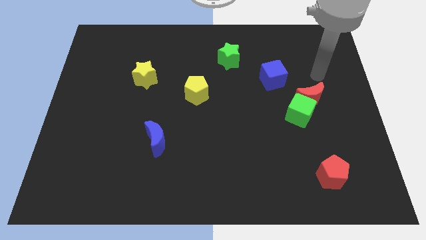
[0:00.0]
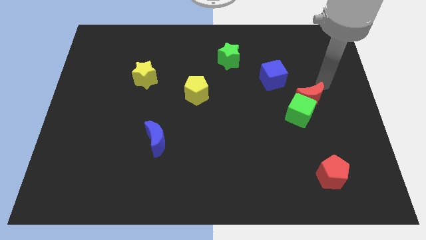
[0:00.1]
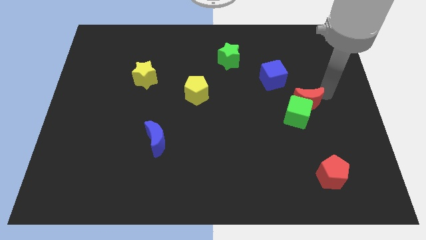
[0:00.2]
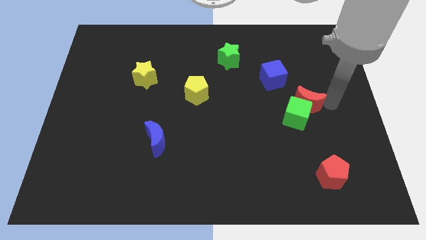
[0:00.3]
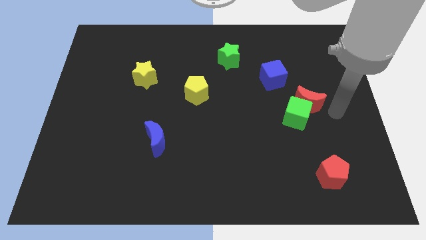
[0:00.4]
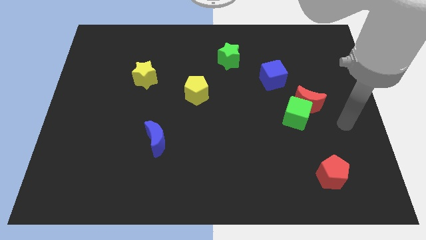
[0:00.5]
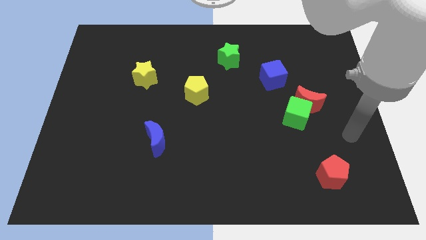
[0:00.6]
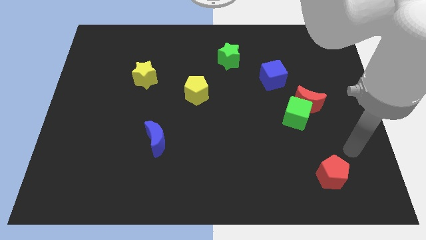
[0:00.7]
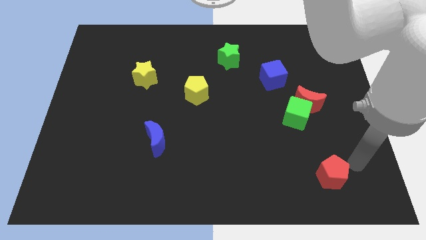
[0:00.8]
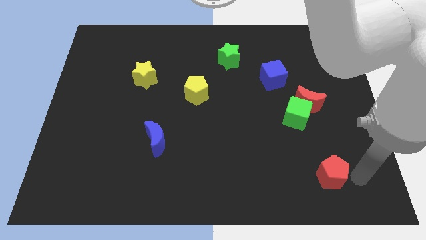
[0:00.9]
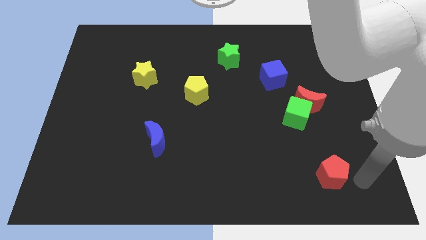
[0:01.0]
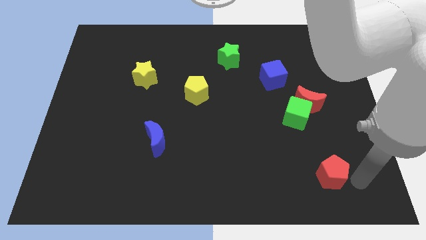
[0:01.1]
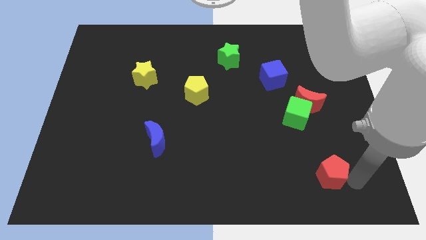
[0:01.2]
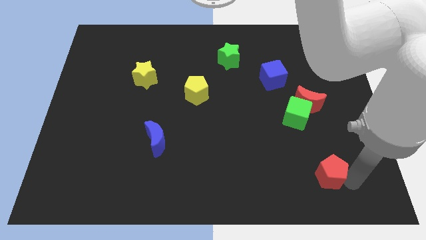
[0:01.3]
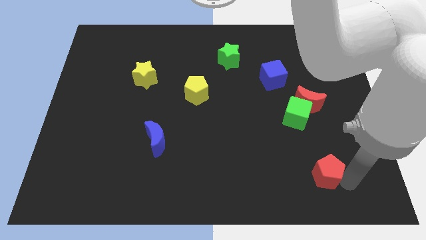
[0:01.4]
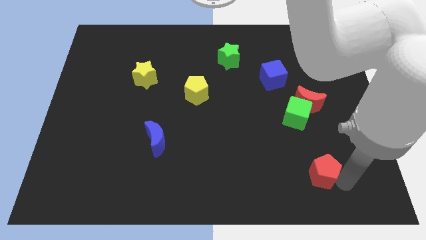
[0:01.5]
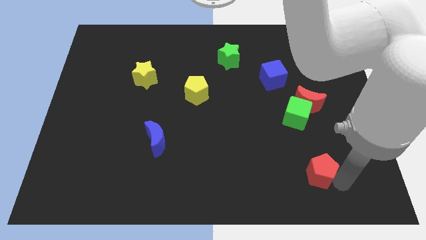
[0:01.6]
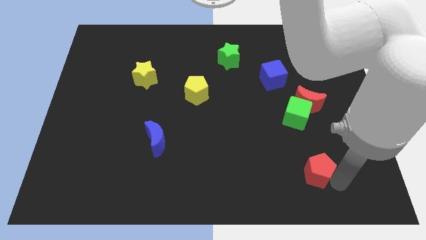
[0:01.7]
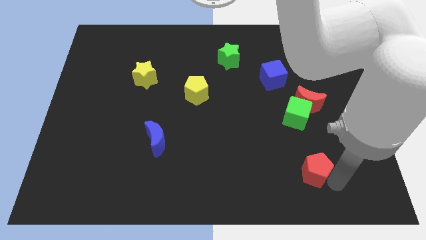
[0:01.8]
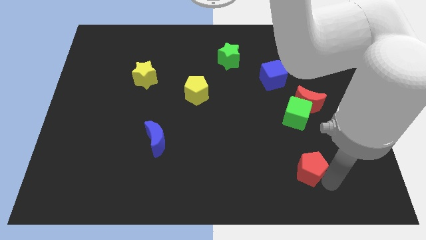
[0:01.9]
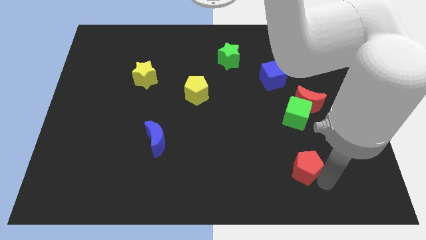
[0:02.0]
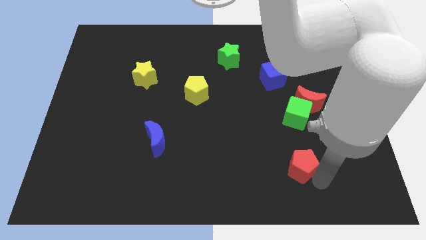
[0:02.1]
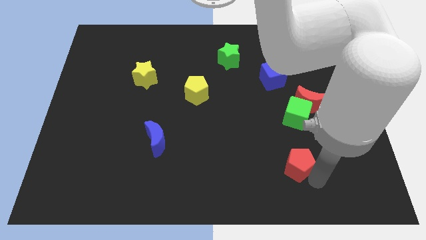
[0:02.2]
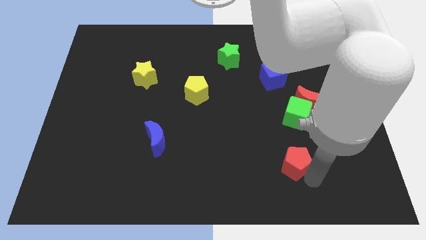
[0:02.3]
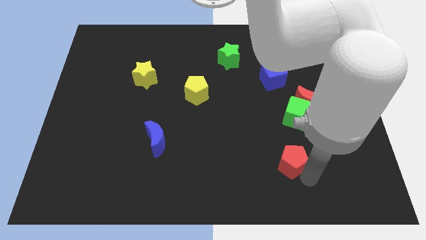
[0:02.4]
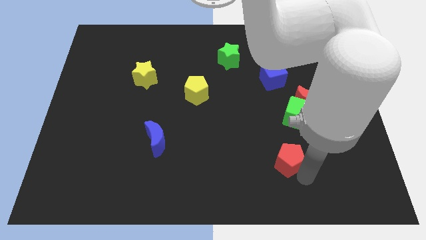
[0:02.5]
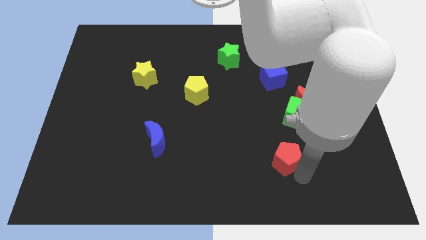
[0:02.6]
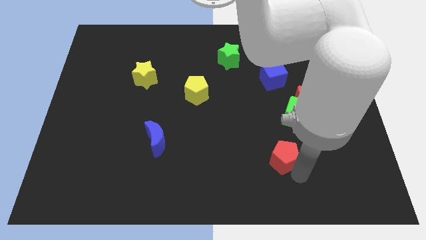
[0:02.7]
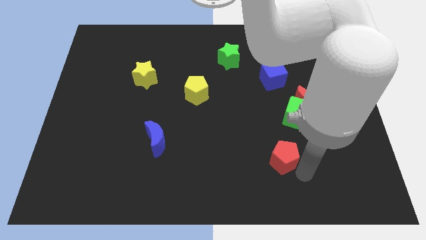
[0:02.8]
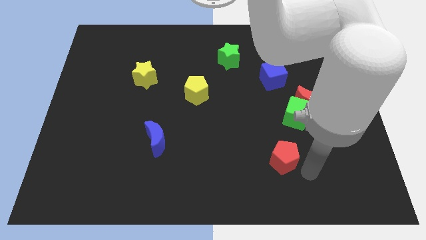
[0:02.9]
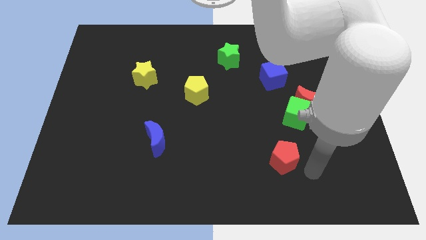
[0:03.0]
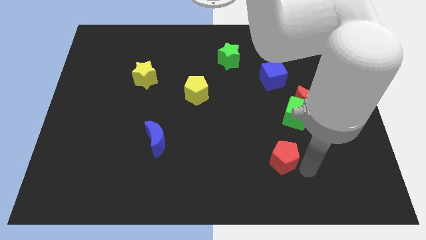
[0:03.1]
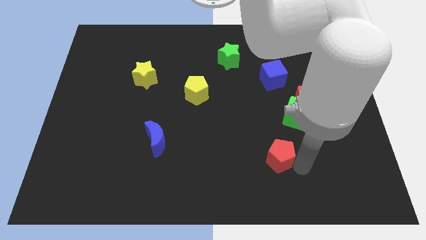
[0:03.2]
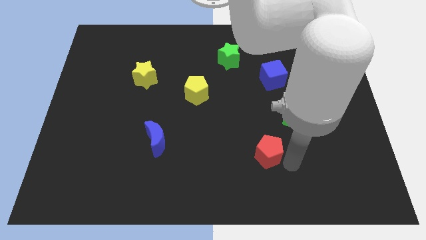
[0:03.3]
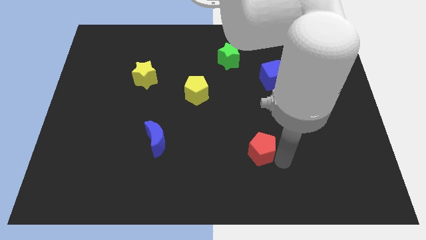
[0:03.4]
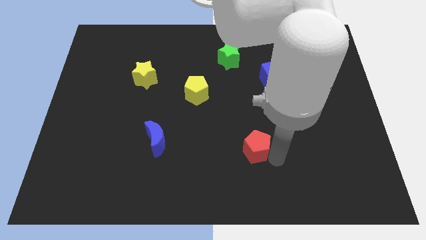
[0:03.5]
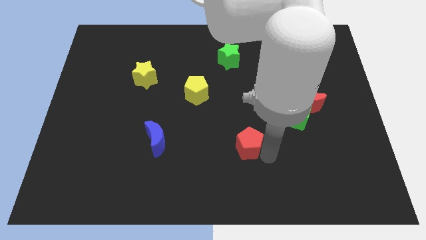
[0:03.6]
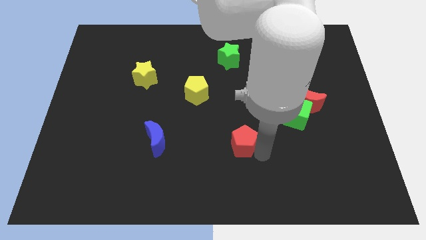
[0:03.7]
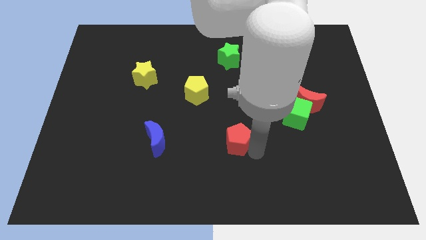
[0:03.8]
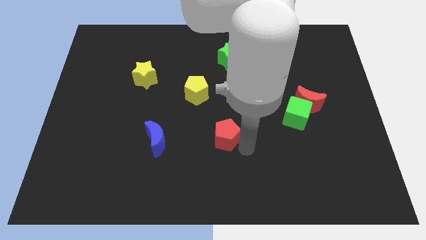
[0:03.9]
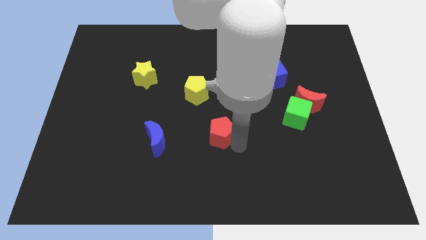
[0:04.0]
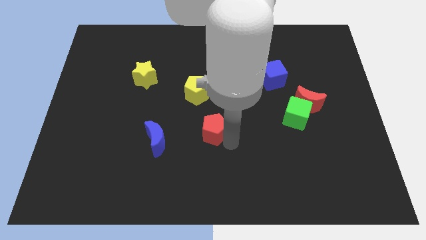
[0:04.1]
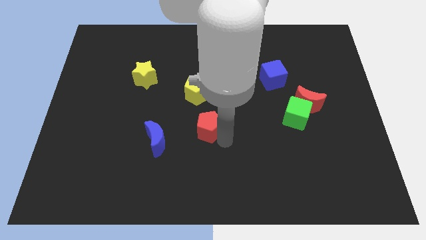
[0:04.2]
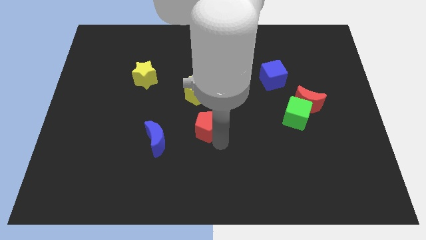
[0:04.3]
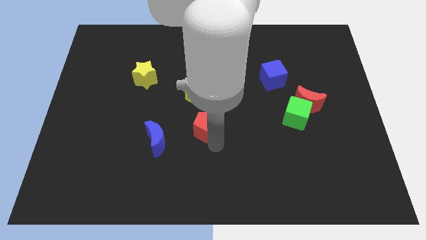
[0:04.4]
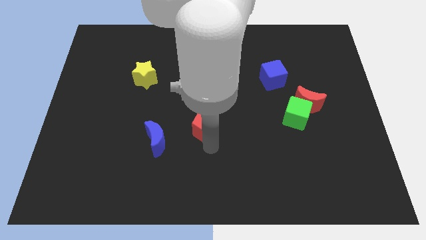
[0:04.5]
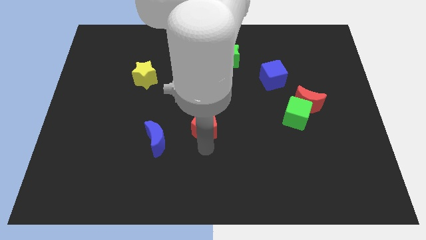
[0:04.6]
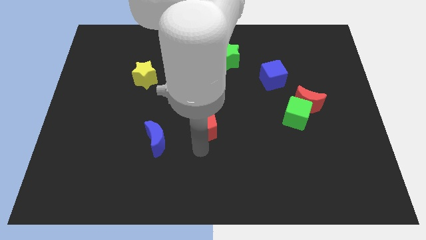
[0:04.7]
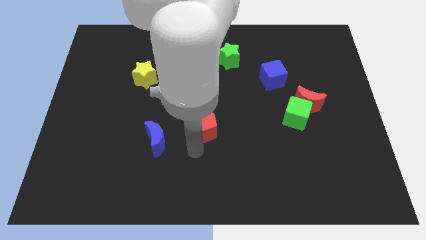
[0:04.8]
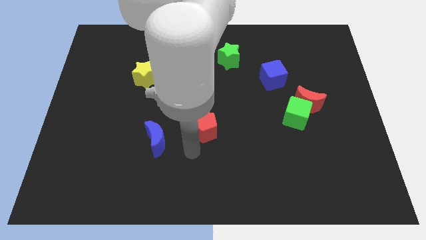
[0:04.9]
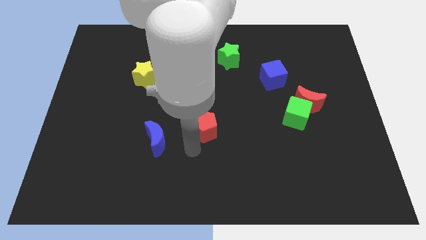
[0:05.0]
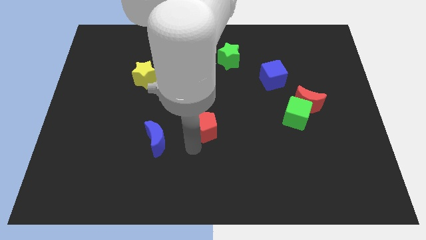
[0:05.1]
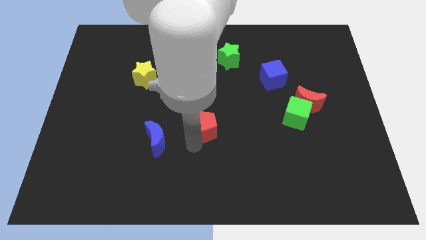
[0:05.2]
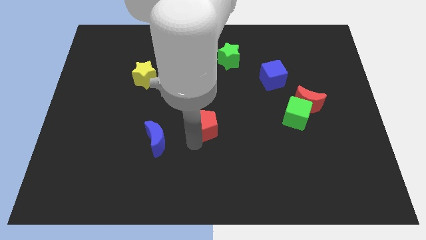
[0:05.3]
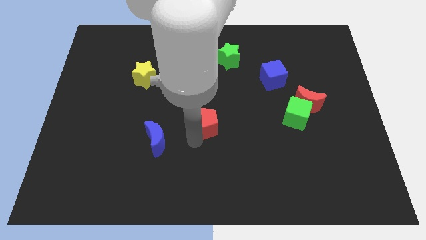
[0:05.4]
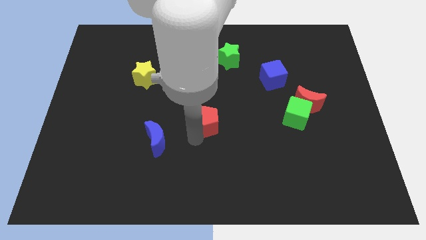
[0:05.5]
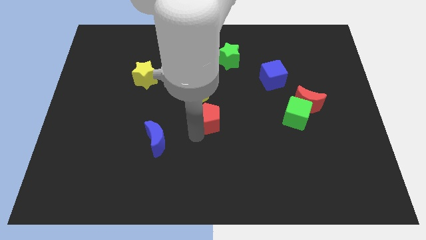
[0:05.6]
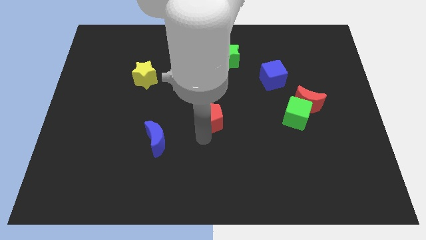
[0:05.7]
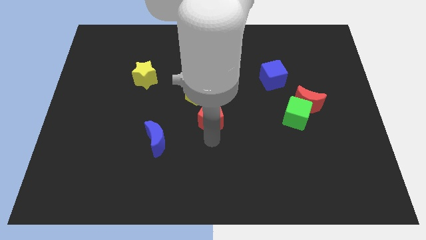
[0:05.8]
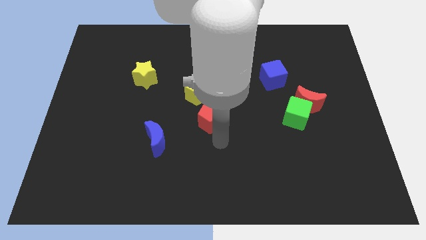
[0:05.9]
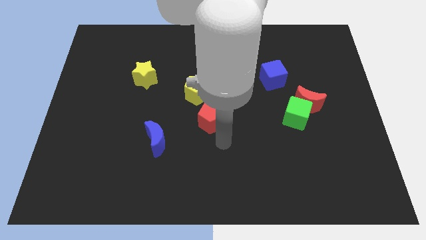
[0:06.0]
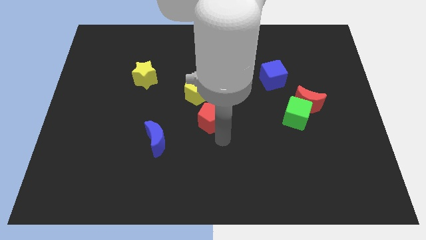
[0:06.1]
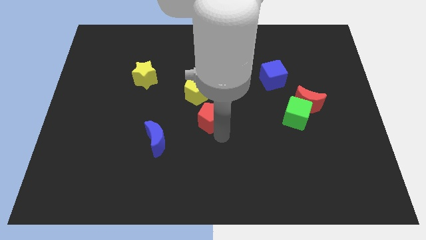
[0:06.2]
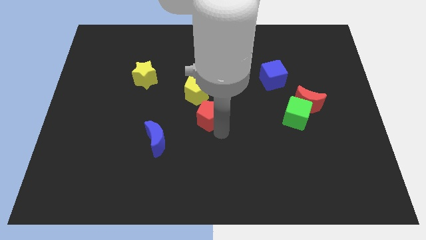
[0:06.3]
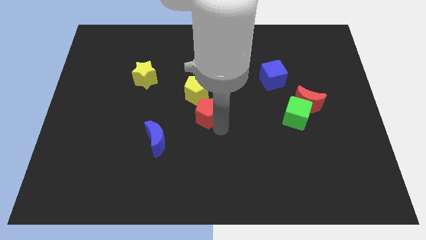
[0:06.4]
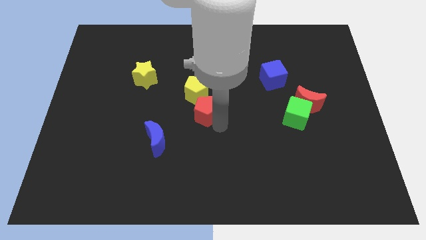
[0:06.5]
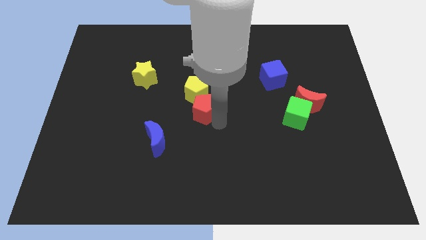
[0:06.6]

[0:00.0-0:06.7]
move the red pentagon close to the yellow pentagon
